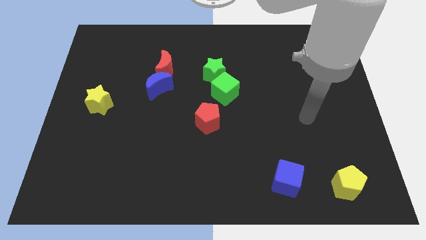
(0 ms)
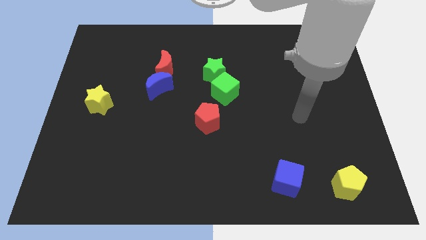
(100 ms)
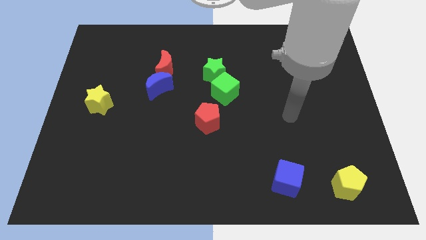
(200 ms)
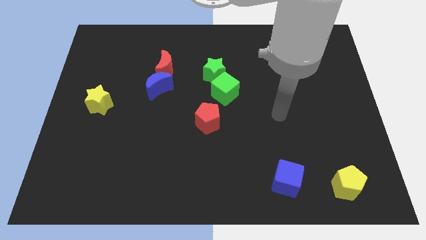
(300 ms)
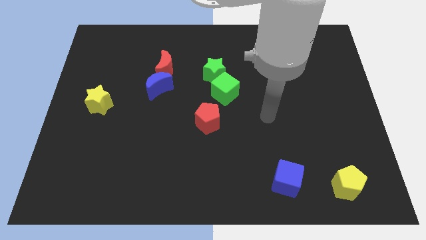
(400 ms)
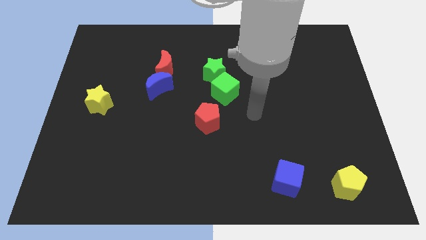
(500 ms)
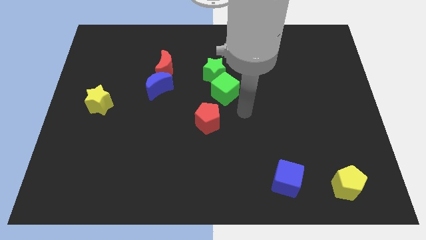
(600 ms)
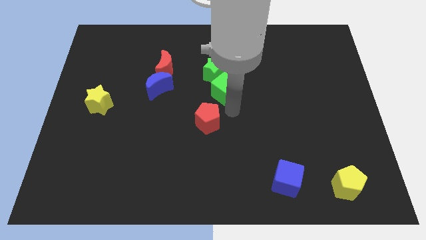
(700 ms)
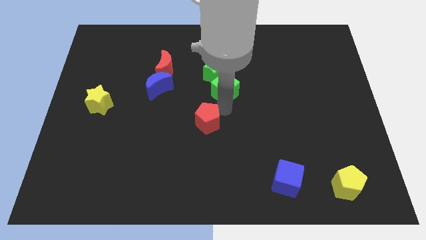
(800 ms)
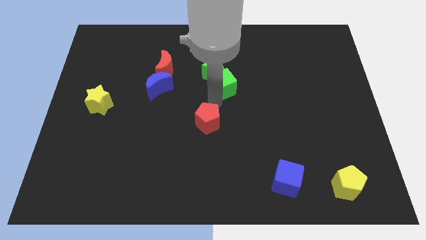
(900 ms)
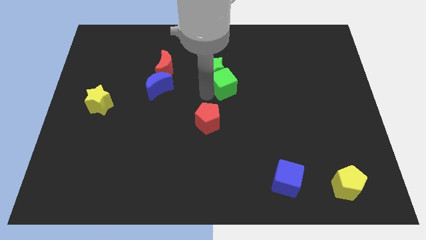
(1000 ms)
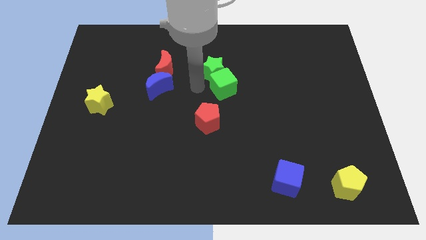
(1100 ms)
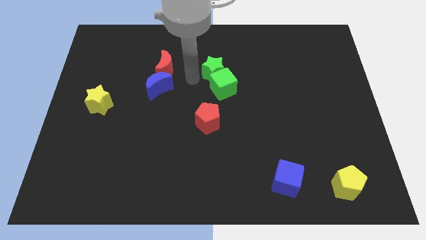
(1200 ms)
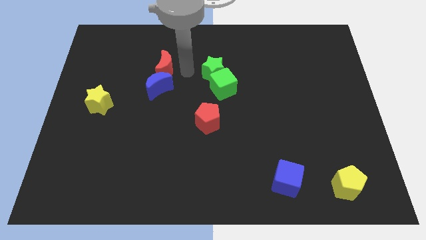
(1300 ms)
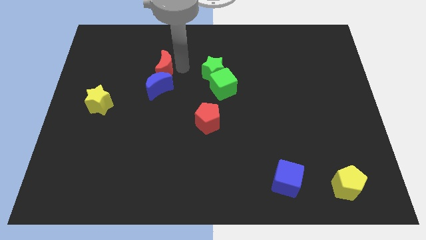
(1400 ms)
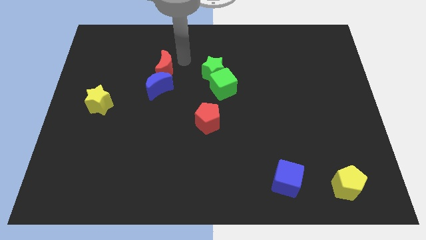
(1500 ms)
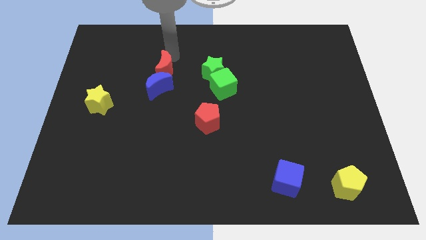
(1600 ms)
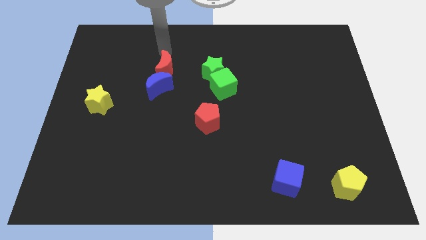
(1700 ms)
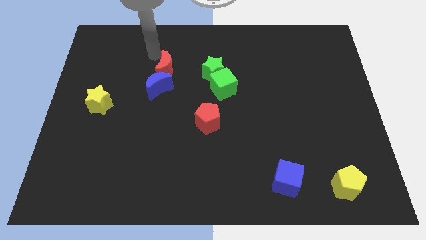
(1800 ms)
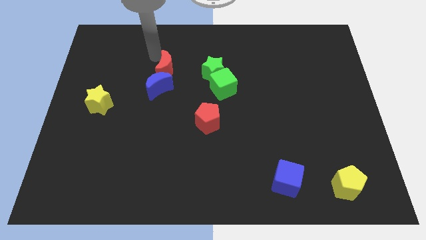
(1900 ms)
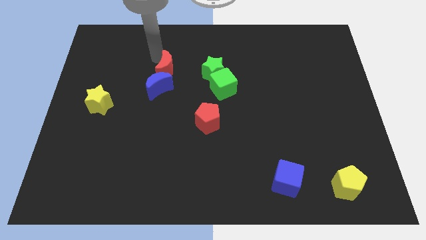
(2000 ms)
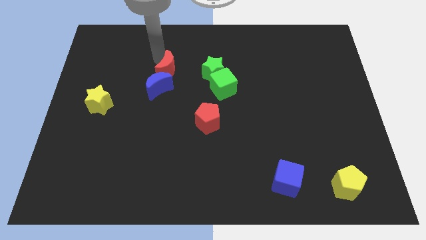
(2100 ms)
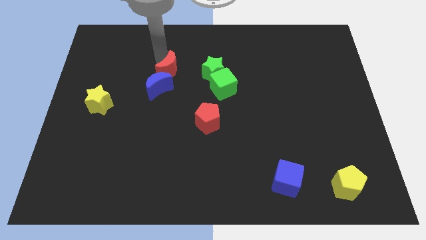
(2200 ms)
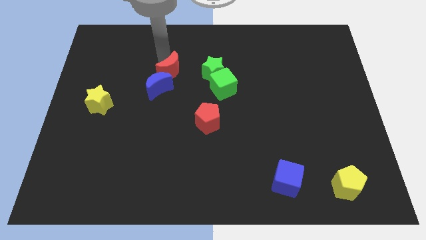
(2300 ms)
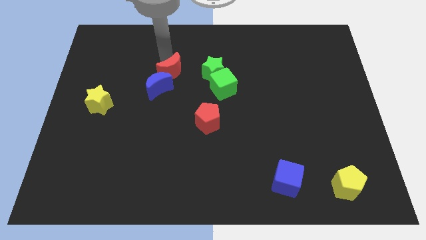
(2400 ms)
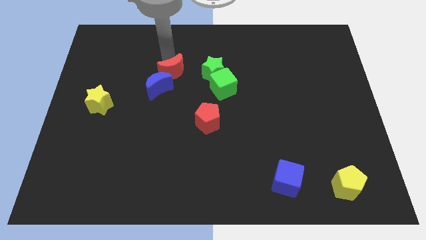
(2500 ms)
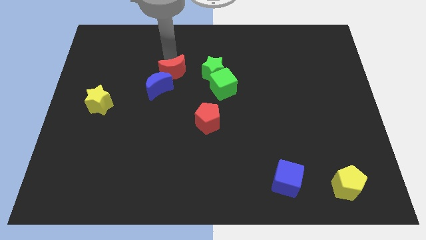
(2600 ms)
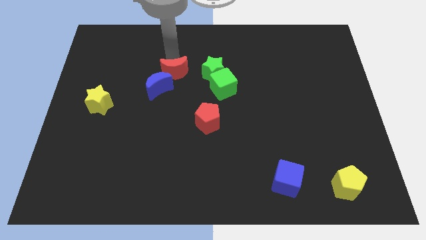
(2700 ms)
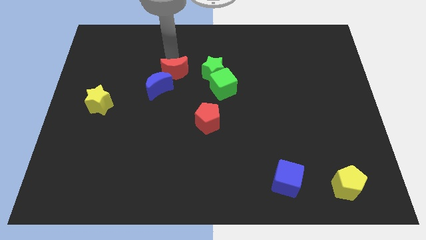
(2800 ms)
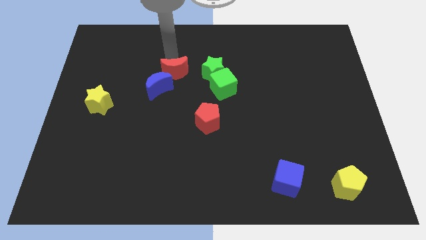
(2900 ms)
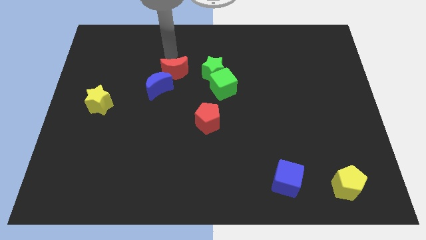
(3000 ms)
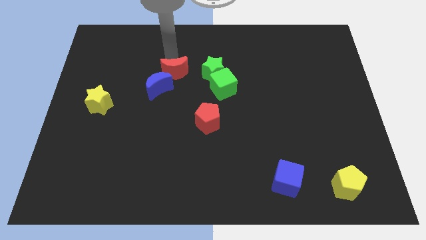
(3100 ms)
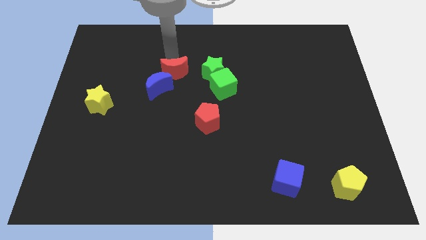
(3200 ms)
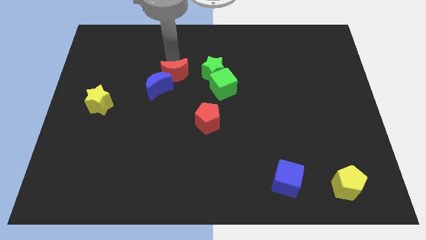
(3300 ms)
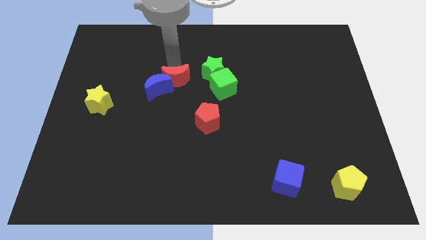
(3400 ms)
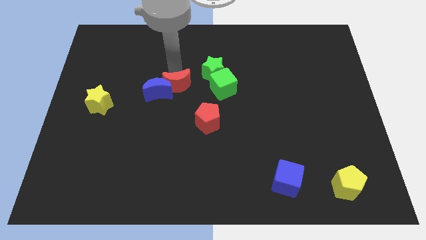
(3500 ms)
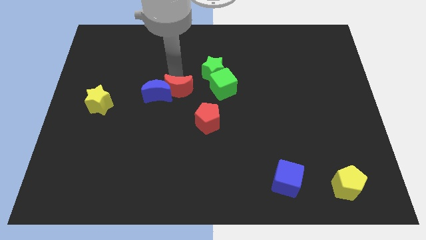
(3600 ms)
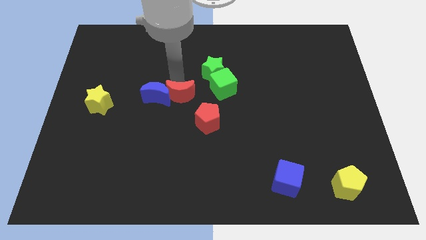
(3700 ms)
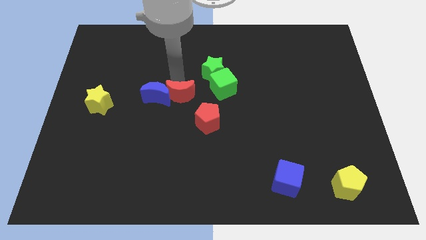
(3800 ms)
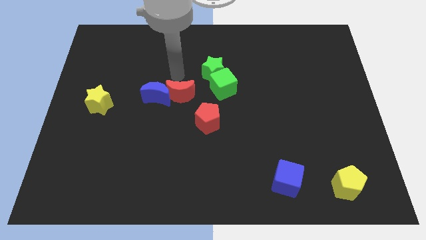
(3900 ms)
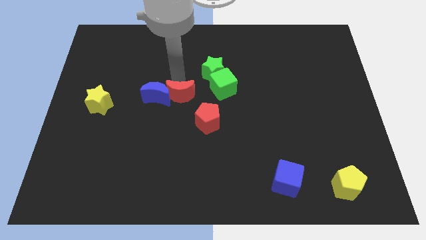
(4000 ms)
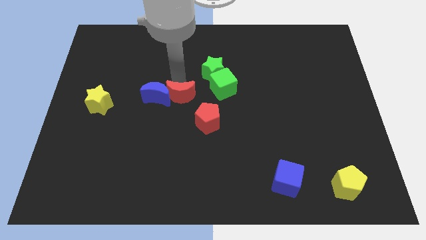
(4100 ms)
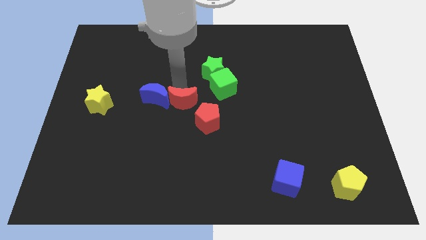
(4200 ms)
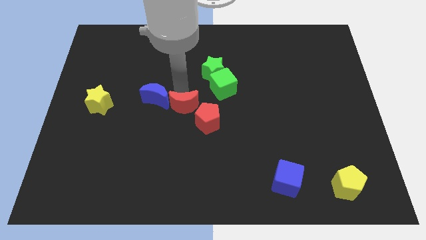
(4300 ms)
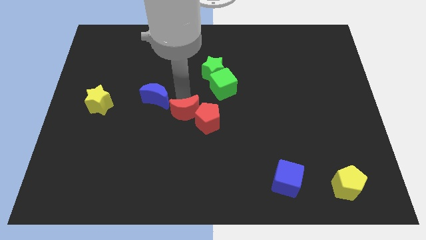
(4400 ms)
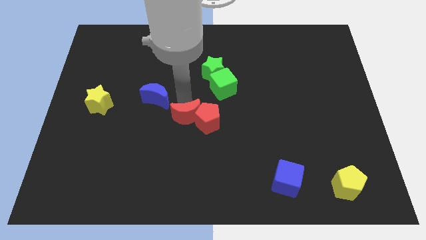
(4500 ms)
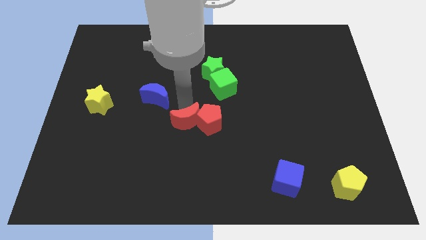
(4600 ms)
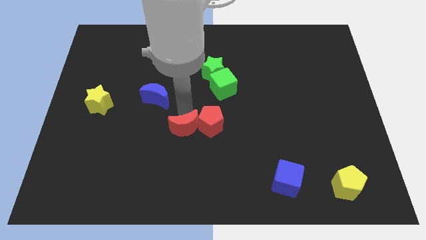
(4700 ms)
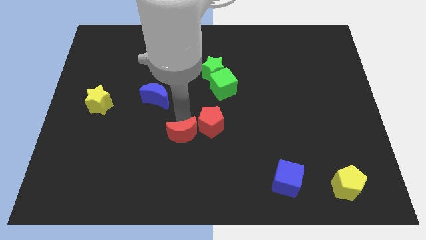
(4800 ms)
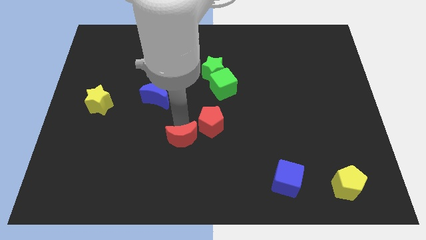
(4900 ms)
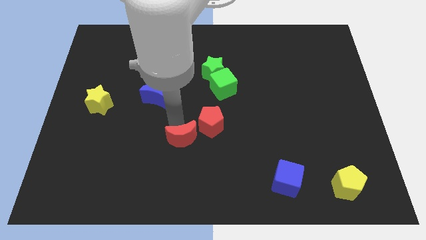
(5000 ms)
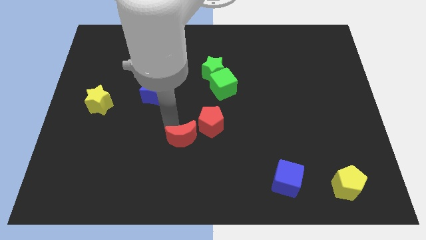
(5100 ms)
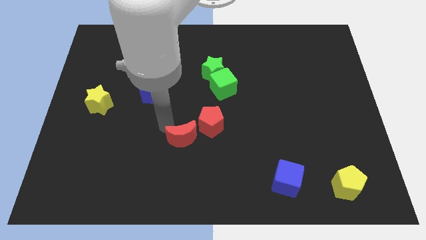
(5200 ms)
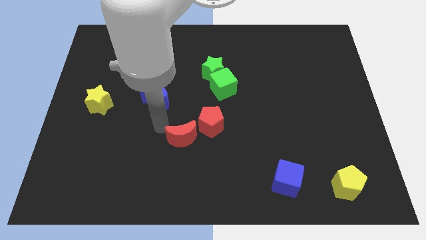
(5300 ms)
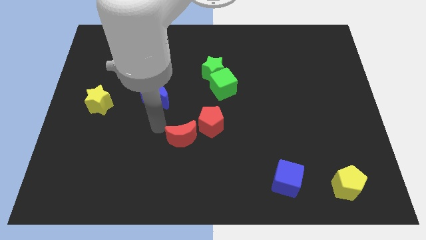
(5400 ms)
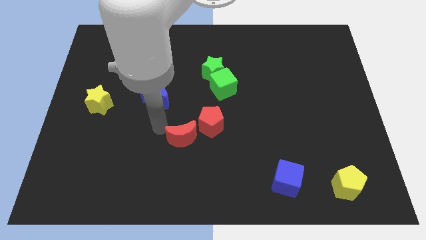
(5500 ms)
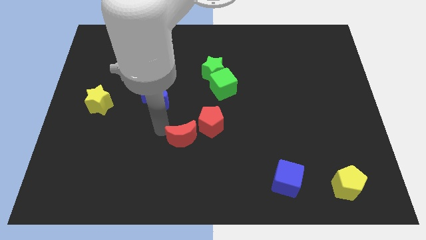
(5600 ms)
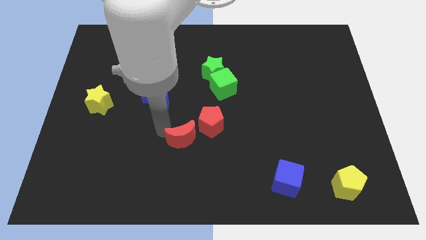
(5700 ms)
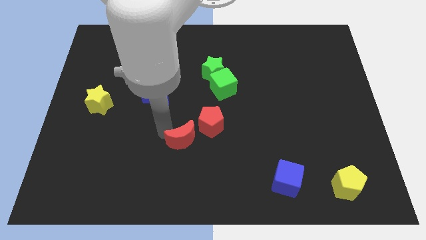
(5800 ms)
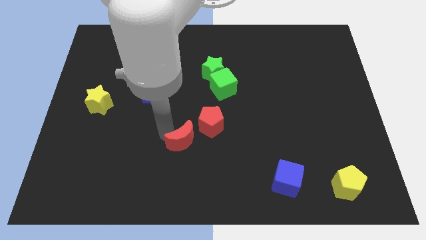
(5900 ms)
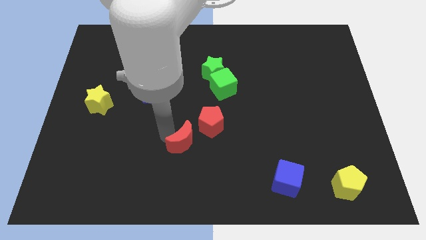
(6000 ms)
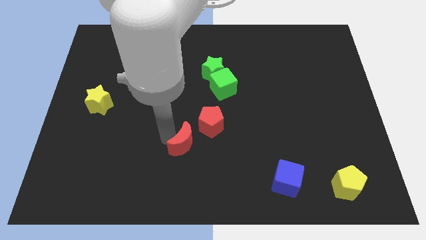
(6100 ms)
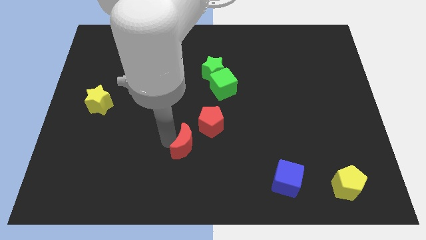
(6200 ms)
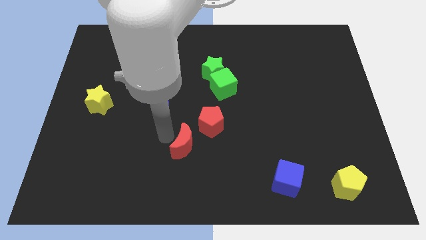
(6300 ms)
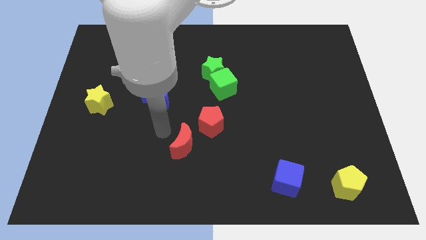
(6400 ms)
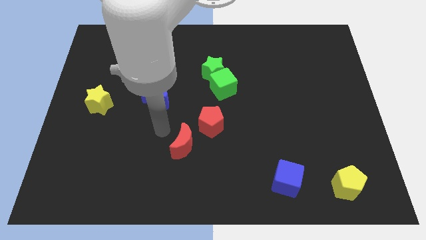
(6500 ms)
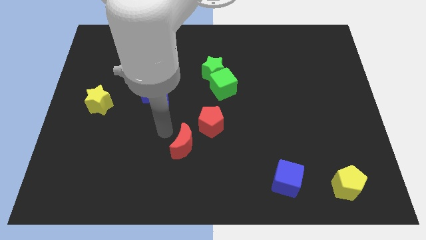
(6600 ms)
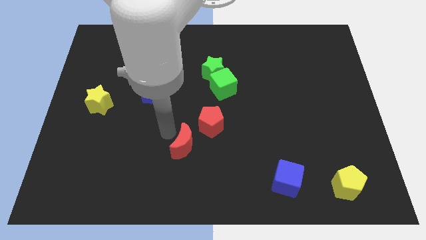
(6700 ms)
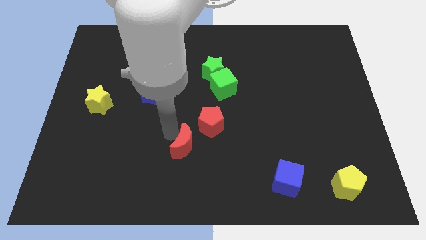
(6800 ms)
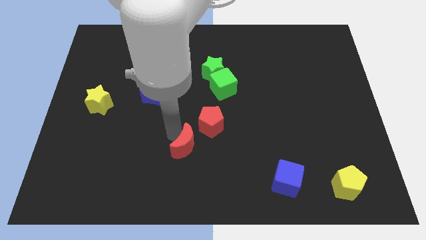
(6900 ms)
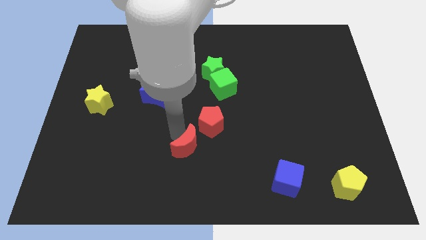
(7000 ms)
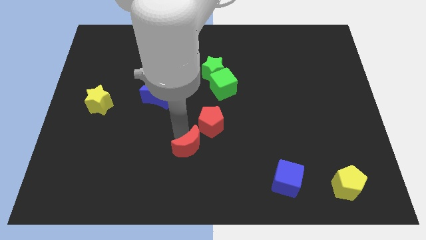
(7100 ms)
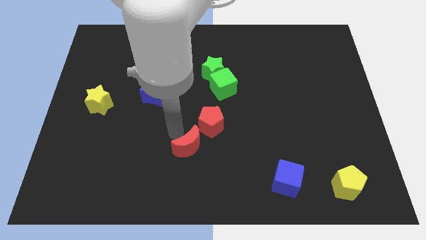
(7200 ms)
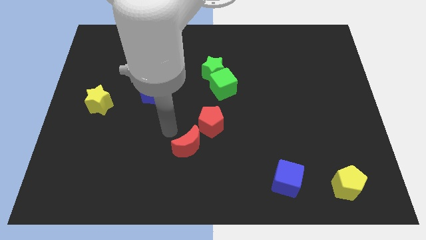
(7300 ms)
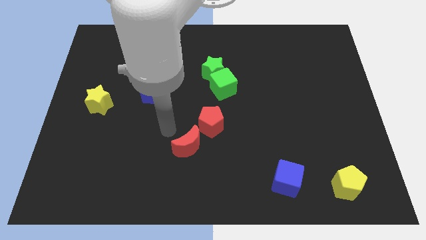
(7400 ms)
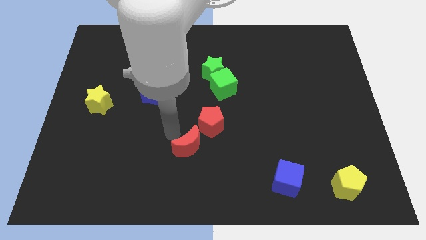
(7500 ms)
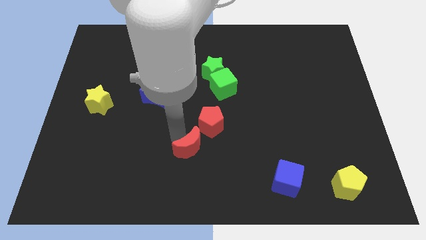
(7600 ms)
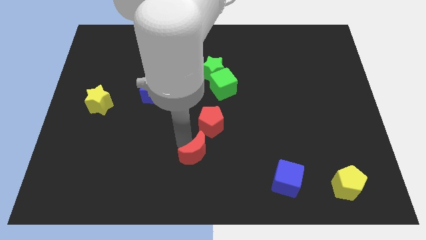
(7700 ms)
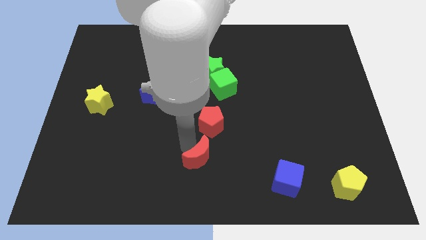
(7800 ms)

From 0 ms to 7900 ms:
move the red moon to the bottom
